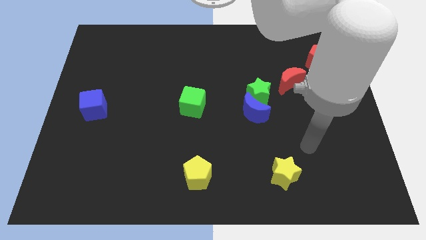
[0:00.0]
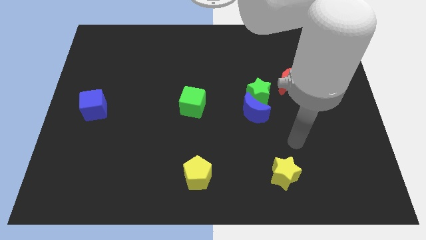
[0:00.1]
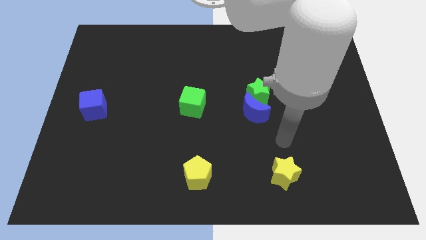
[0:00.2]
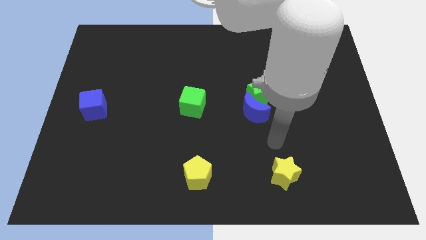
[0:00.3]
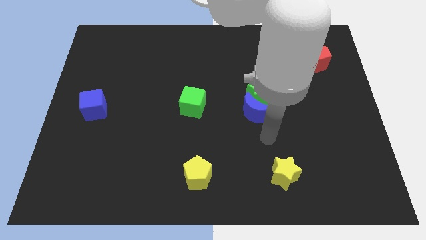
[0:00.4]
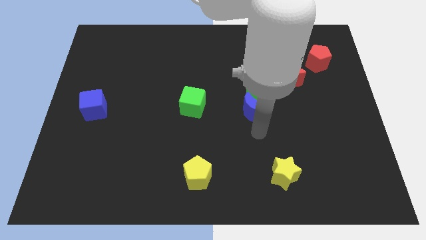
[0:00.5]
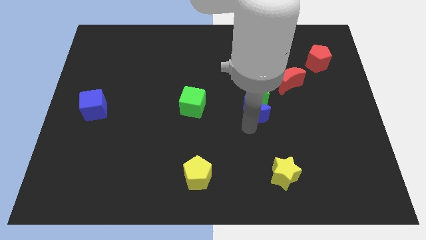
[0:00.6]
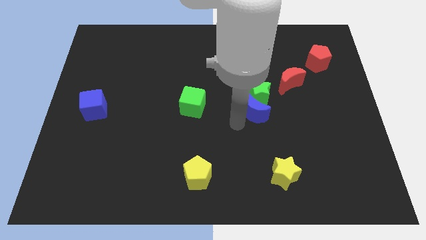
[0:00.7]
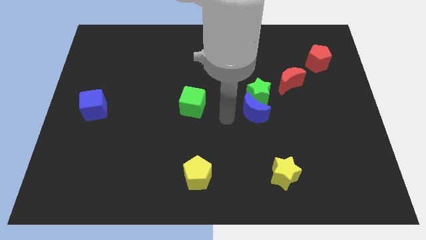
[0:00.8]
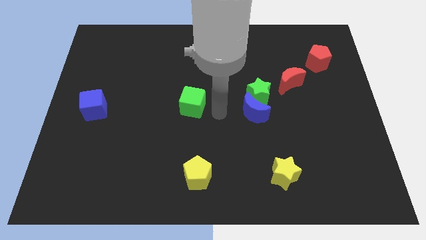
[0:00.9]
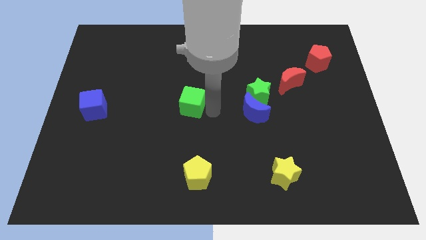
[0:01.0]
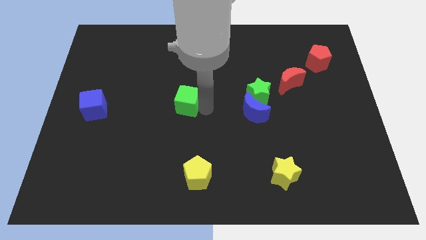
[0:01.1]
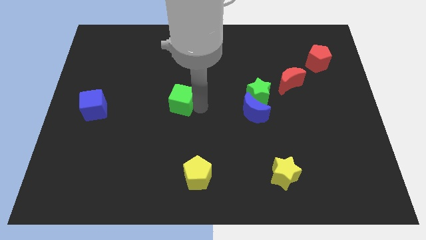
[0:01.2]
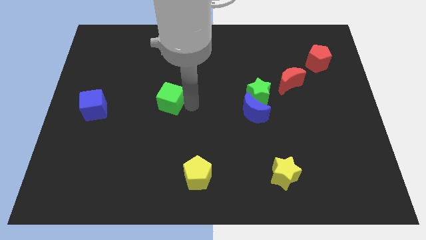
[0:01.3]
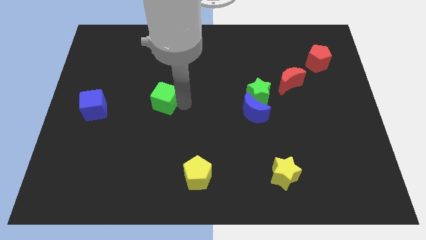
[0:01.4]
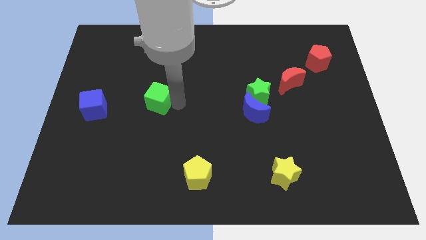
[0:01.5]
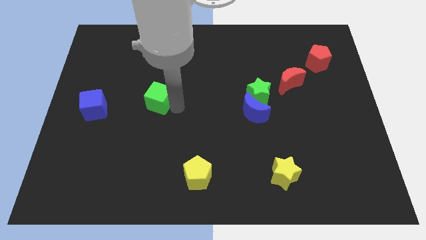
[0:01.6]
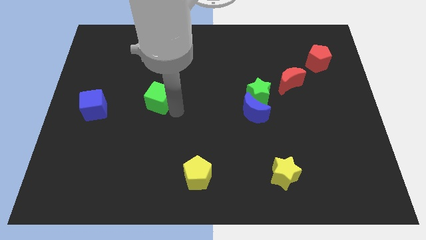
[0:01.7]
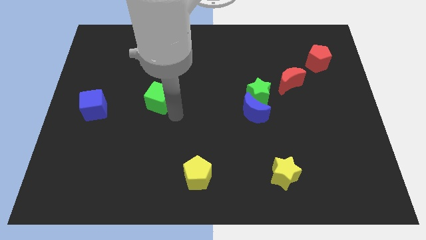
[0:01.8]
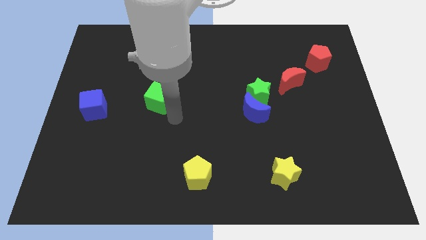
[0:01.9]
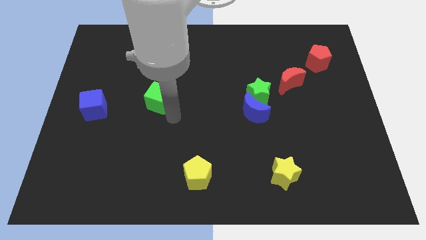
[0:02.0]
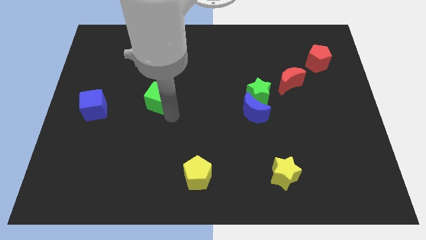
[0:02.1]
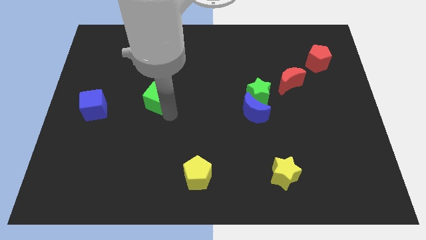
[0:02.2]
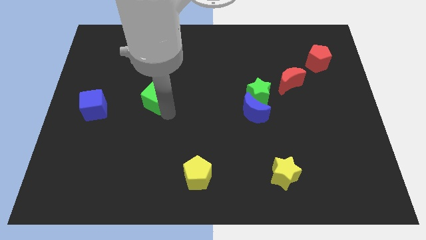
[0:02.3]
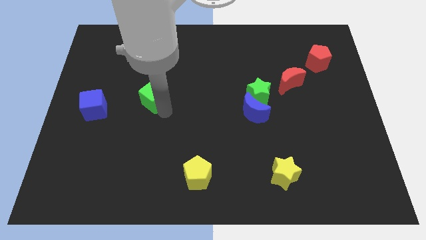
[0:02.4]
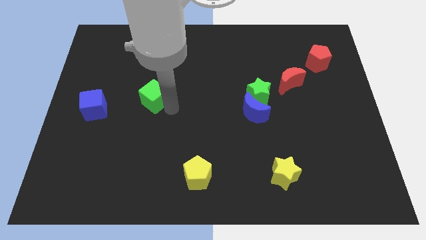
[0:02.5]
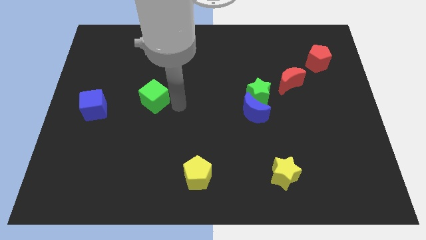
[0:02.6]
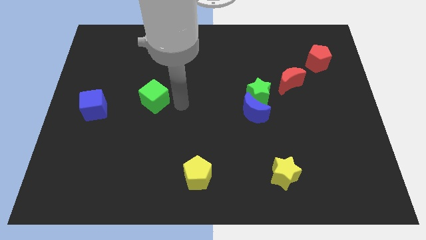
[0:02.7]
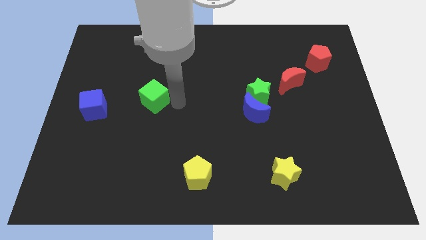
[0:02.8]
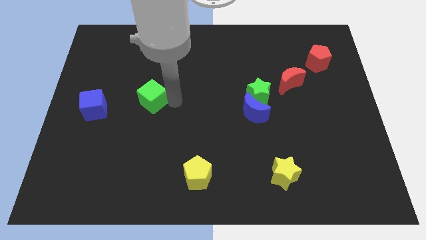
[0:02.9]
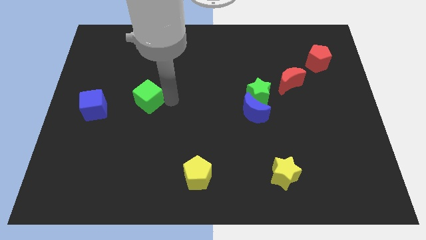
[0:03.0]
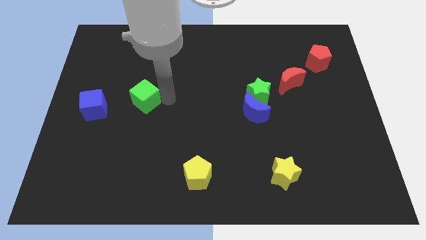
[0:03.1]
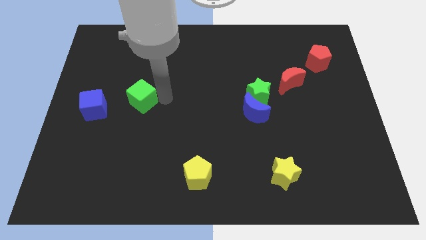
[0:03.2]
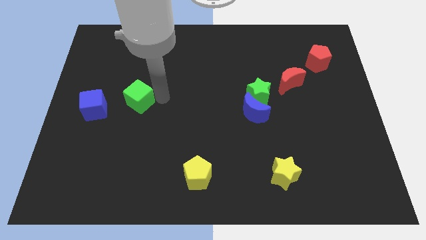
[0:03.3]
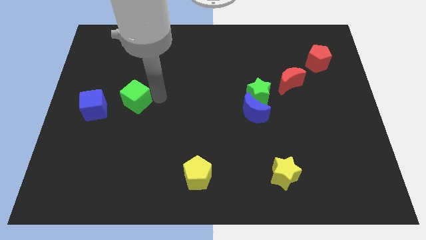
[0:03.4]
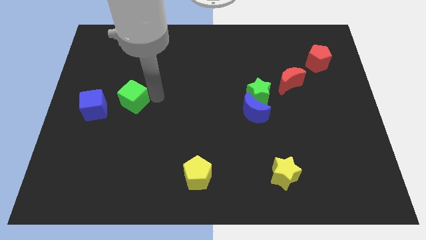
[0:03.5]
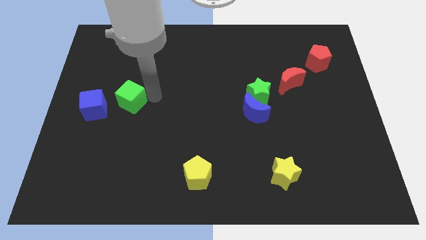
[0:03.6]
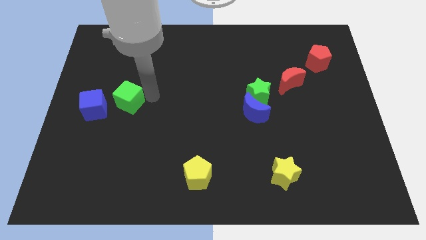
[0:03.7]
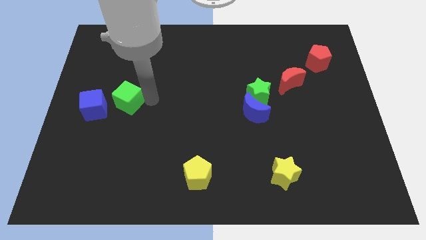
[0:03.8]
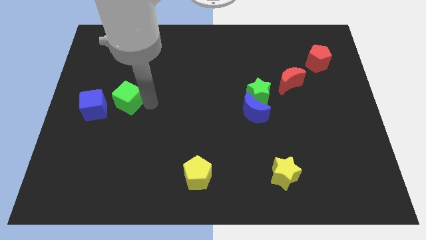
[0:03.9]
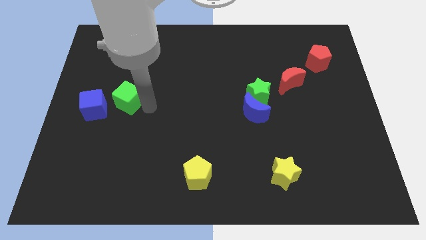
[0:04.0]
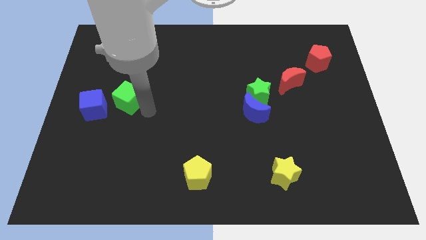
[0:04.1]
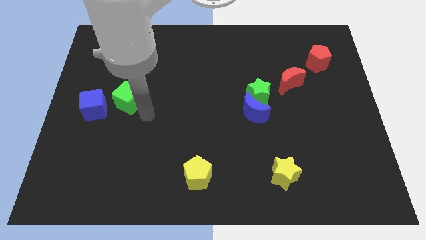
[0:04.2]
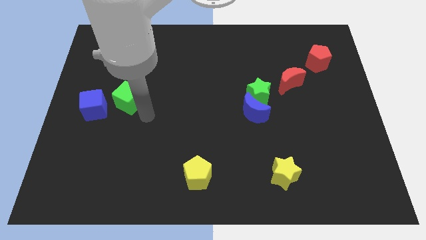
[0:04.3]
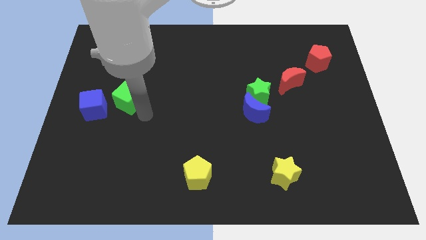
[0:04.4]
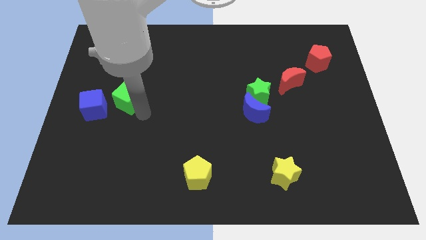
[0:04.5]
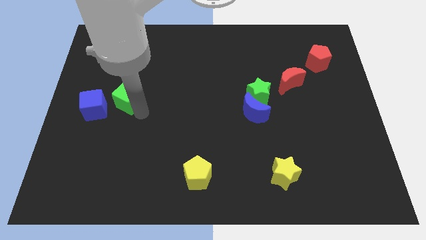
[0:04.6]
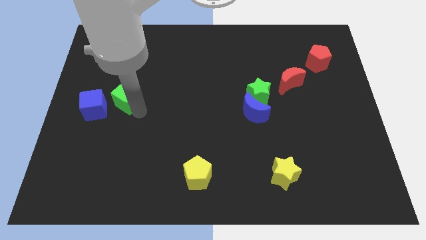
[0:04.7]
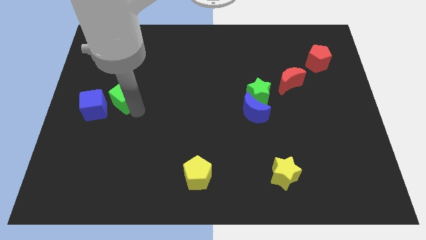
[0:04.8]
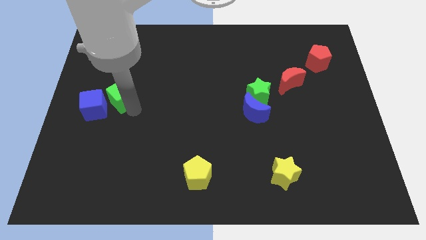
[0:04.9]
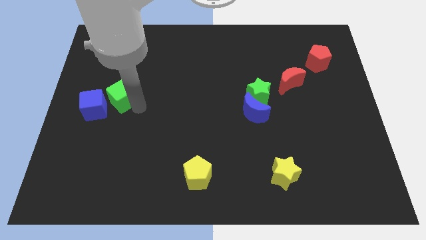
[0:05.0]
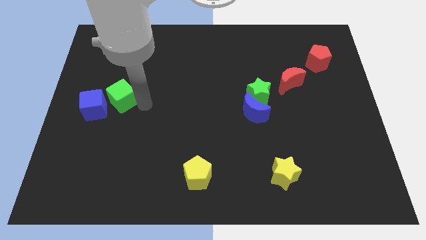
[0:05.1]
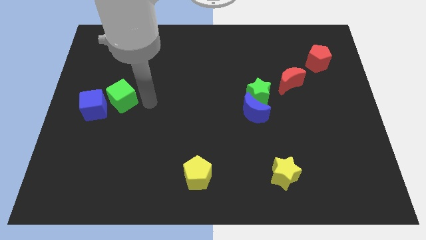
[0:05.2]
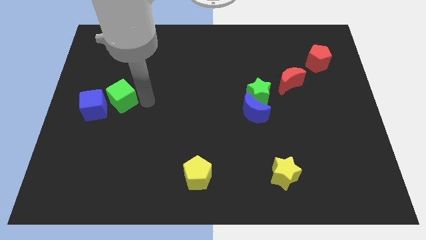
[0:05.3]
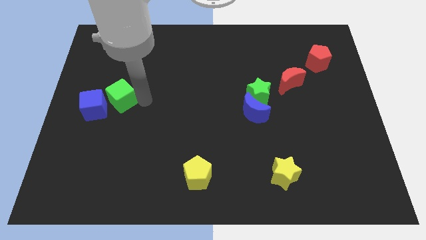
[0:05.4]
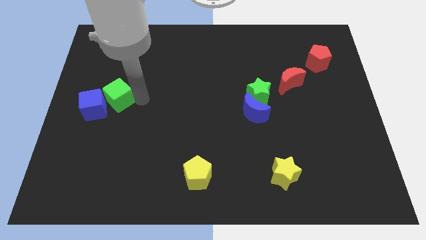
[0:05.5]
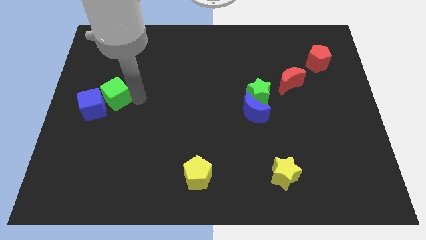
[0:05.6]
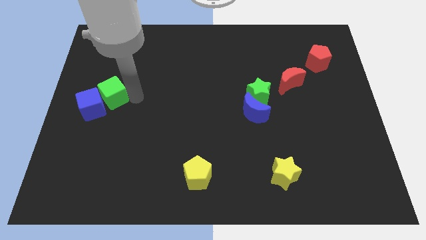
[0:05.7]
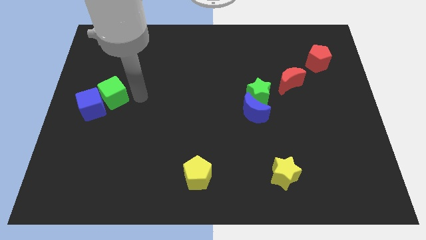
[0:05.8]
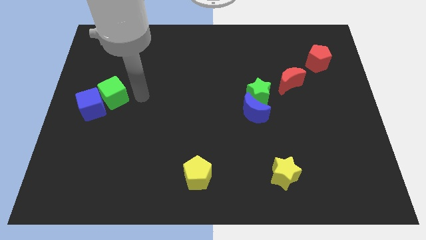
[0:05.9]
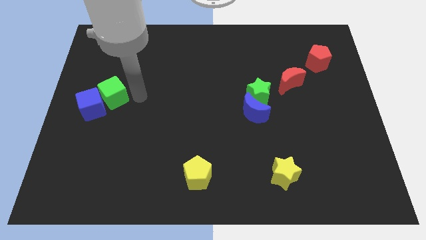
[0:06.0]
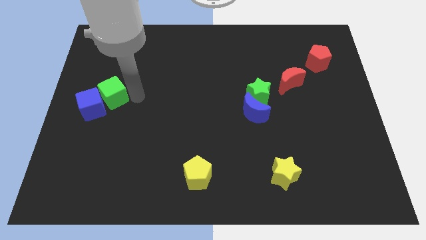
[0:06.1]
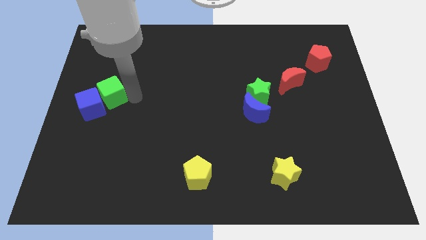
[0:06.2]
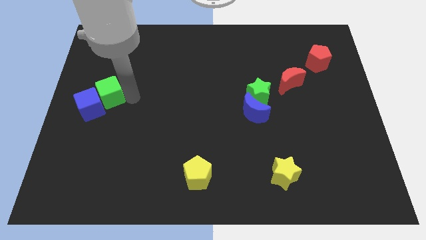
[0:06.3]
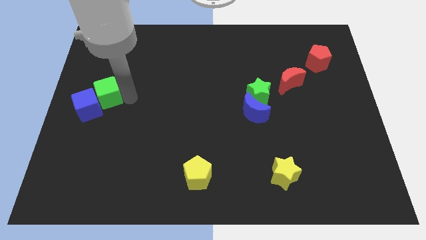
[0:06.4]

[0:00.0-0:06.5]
move the green cube to the center left
